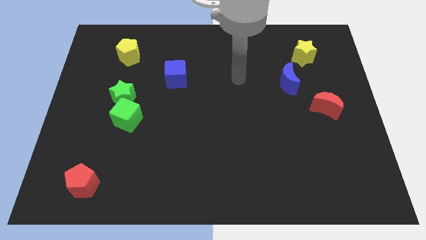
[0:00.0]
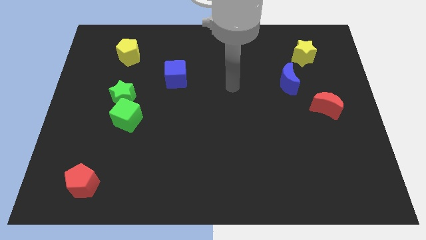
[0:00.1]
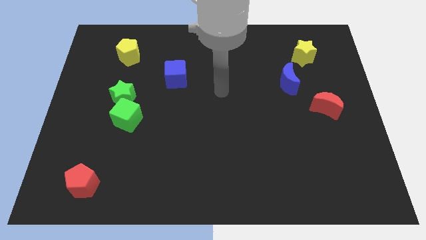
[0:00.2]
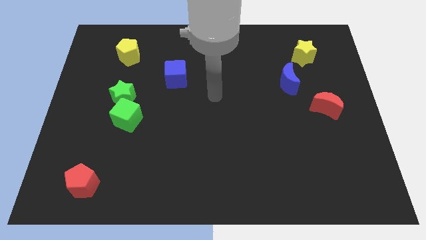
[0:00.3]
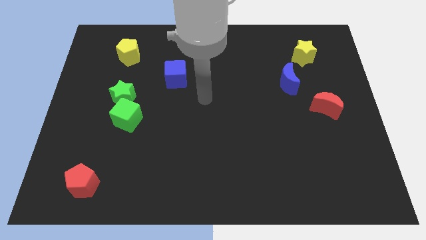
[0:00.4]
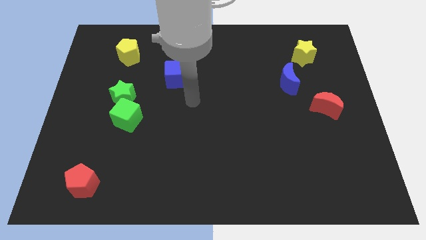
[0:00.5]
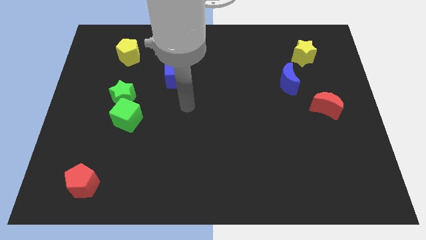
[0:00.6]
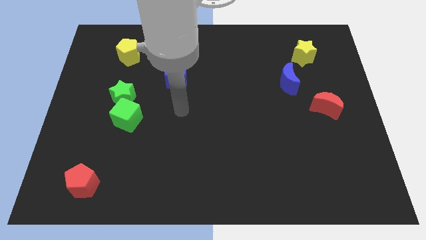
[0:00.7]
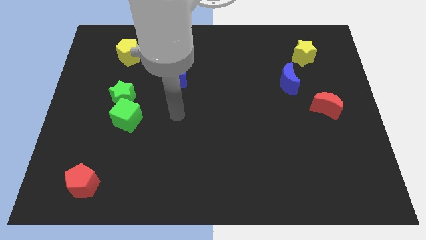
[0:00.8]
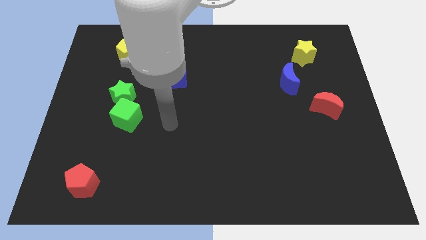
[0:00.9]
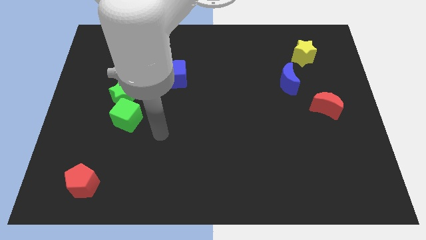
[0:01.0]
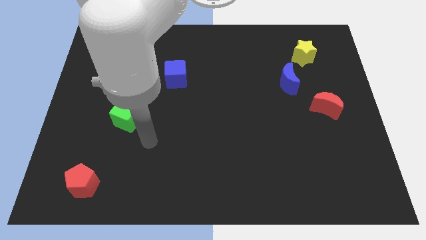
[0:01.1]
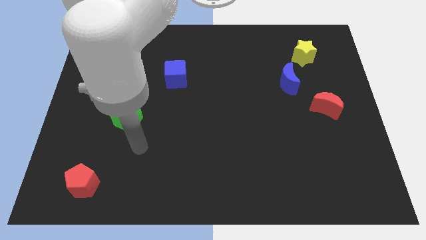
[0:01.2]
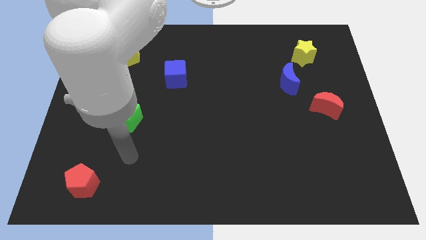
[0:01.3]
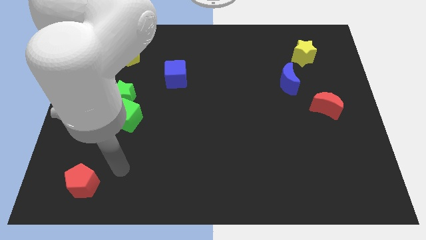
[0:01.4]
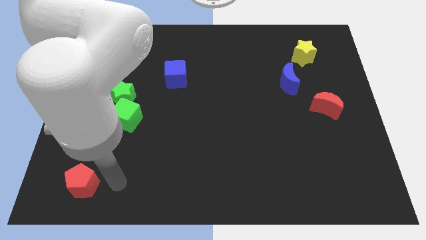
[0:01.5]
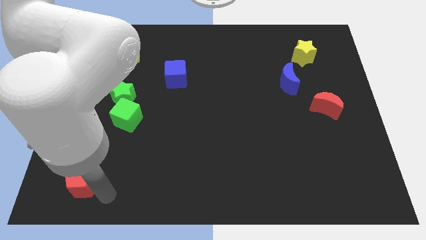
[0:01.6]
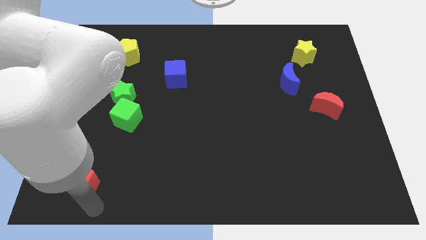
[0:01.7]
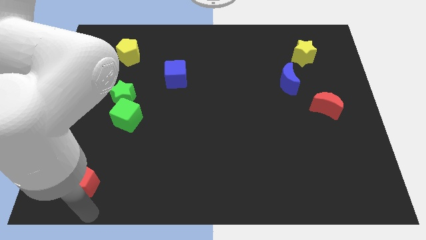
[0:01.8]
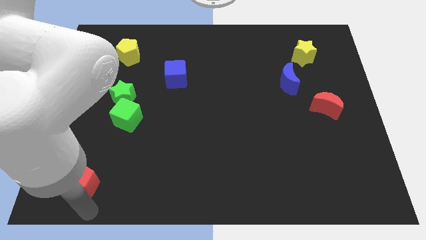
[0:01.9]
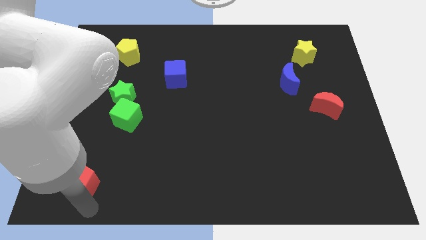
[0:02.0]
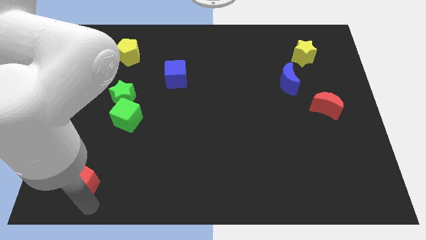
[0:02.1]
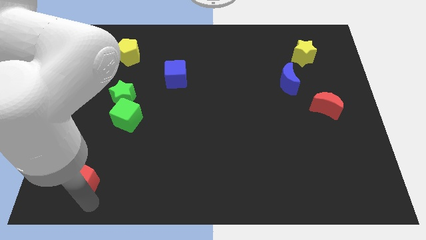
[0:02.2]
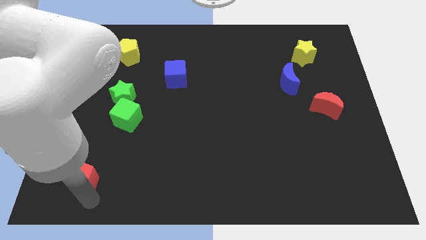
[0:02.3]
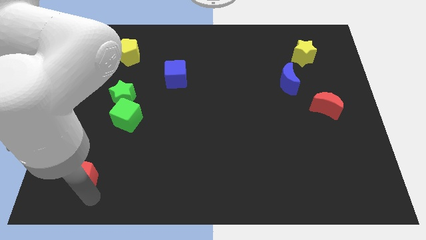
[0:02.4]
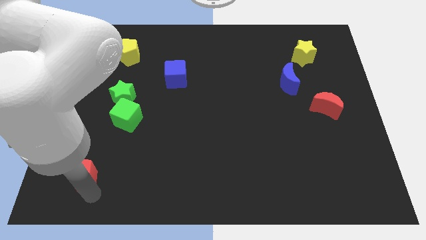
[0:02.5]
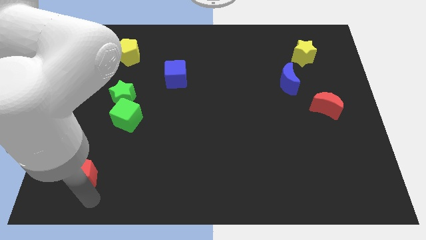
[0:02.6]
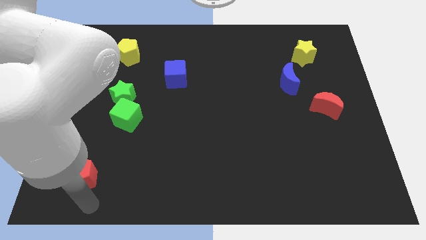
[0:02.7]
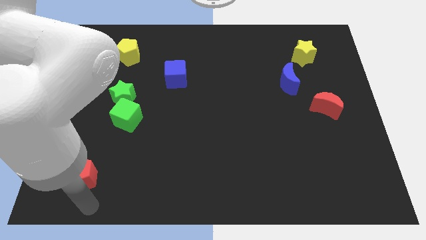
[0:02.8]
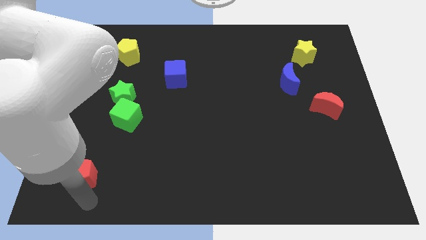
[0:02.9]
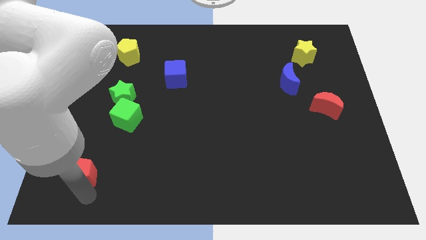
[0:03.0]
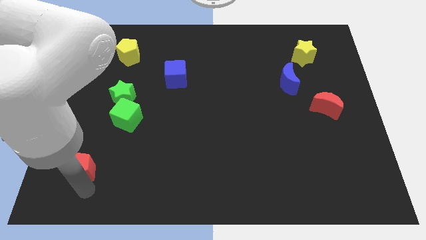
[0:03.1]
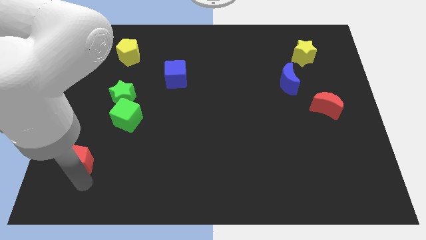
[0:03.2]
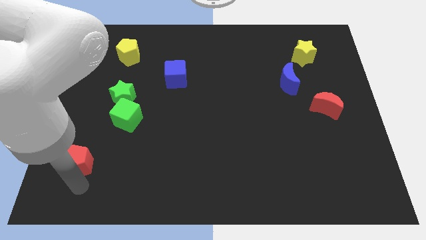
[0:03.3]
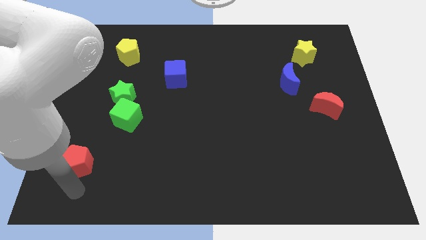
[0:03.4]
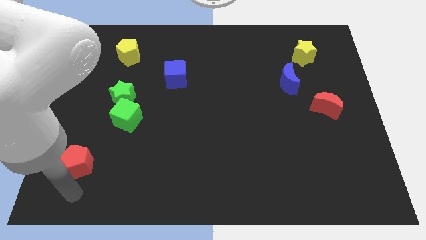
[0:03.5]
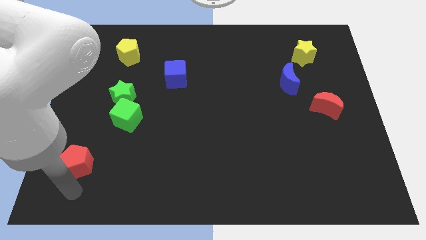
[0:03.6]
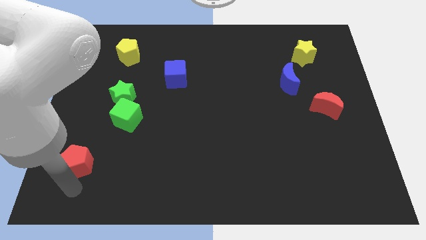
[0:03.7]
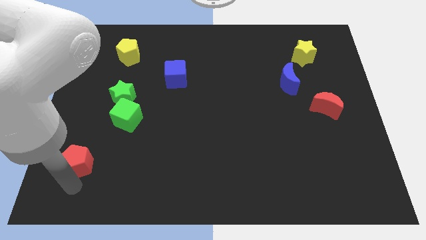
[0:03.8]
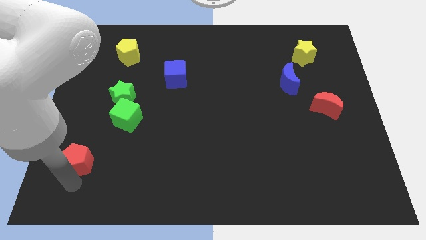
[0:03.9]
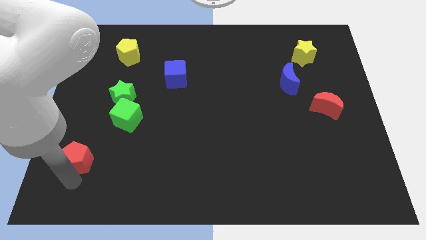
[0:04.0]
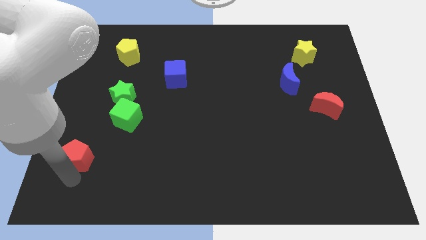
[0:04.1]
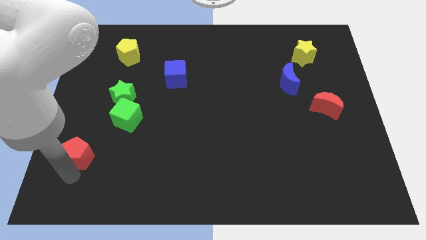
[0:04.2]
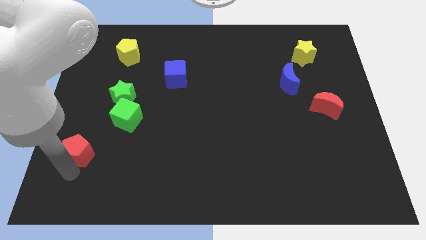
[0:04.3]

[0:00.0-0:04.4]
slightly push the red pentagon up

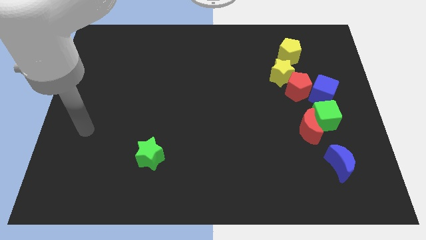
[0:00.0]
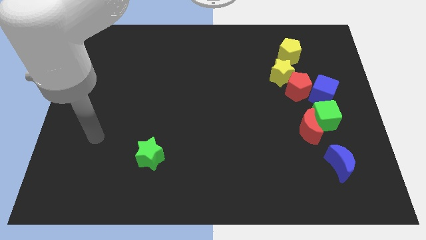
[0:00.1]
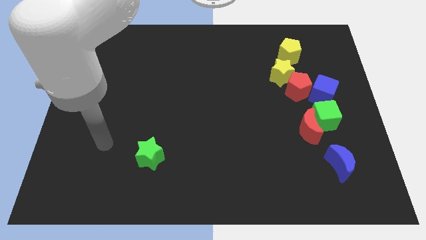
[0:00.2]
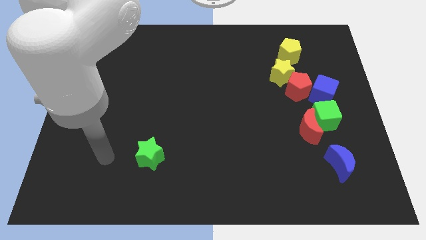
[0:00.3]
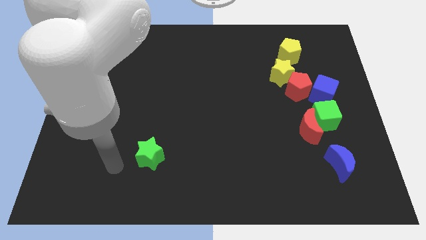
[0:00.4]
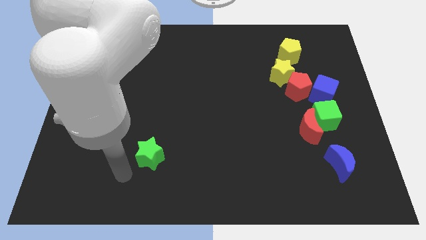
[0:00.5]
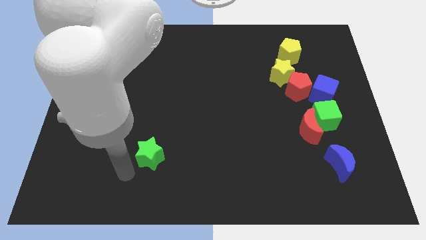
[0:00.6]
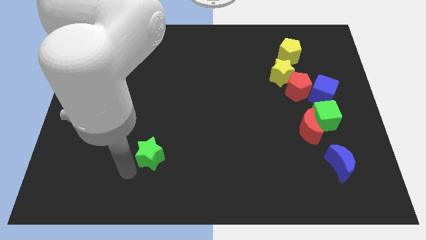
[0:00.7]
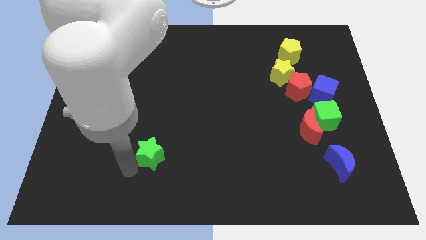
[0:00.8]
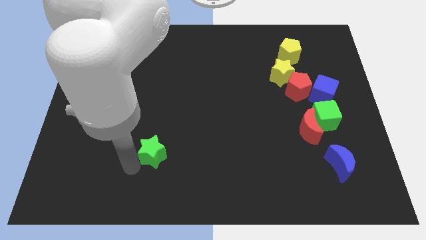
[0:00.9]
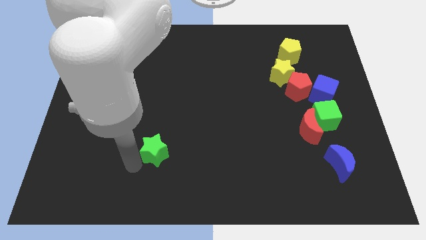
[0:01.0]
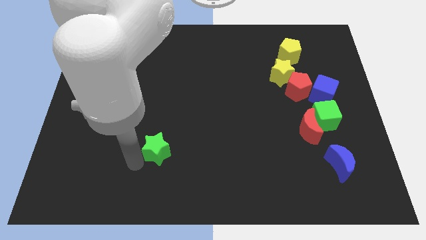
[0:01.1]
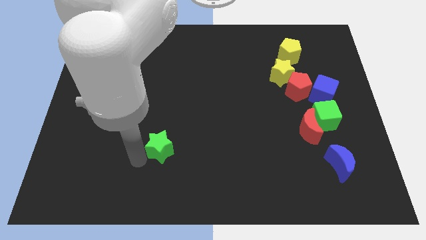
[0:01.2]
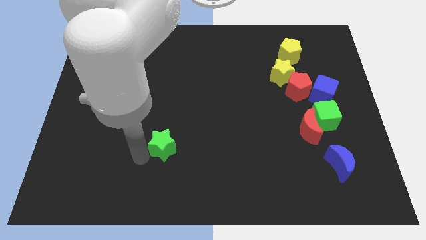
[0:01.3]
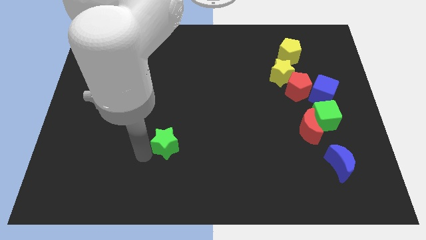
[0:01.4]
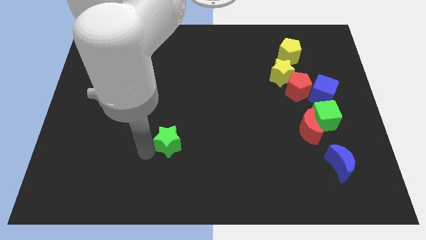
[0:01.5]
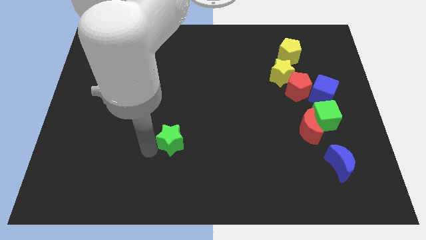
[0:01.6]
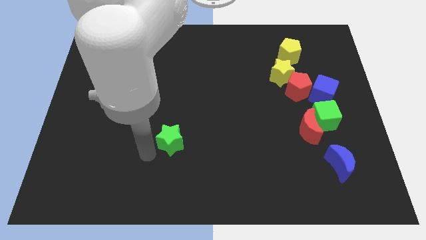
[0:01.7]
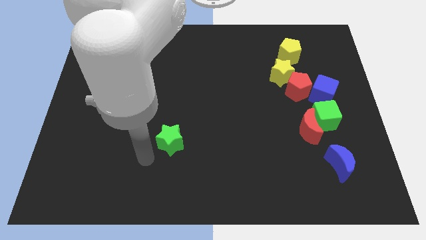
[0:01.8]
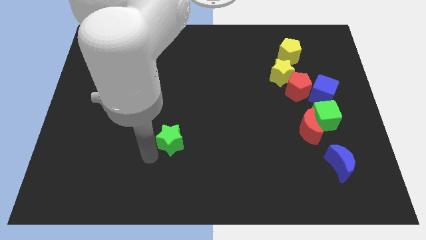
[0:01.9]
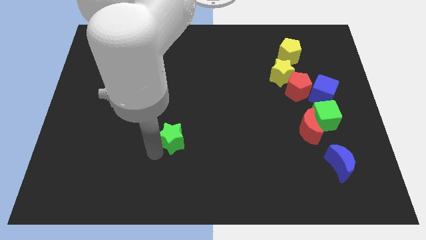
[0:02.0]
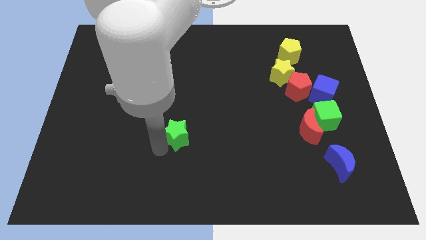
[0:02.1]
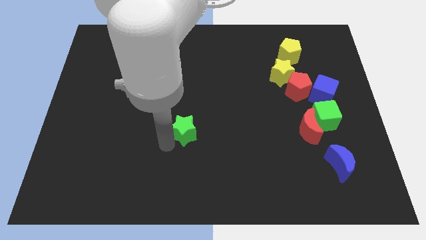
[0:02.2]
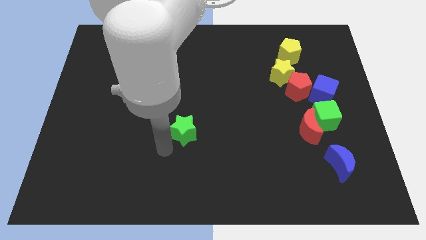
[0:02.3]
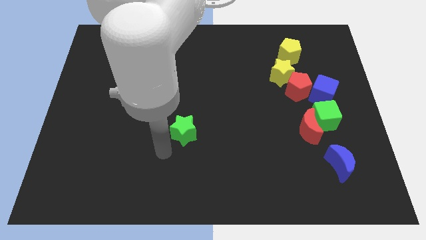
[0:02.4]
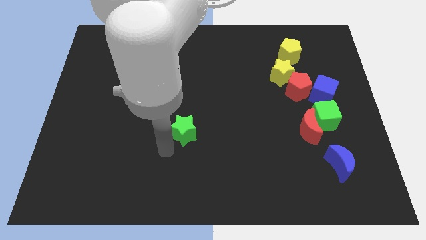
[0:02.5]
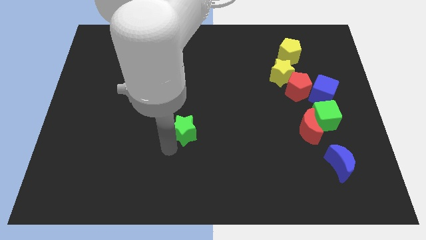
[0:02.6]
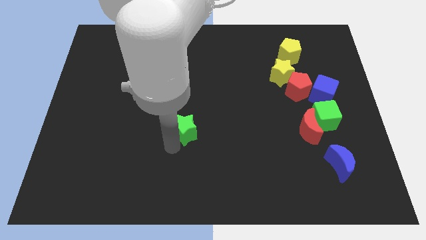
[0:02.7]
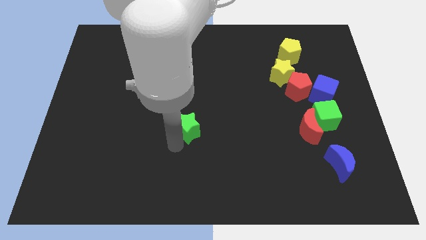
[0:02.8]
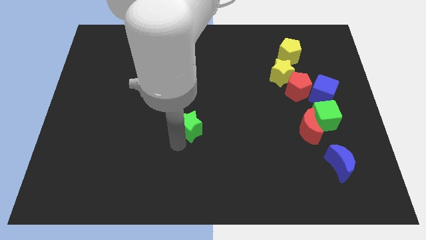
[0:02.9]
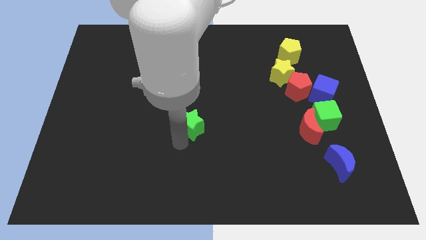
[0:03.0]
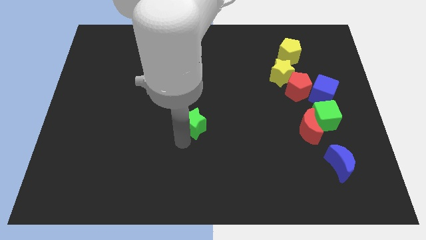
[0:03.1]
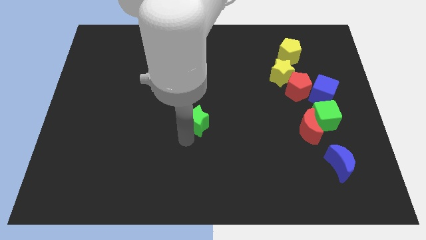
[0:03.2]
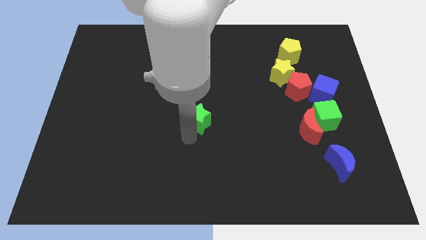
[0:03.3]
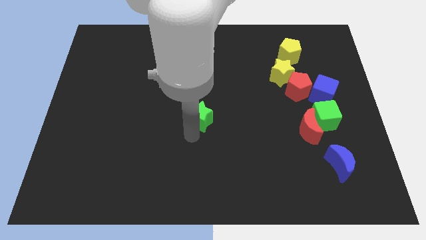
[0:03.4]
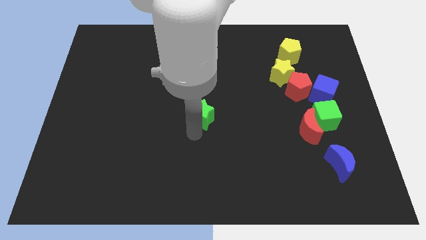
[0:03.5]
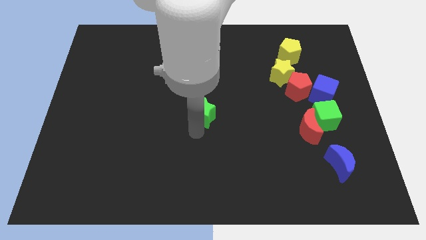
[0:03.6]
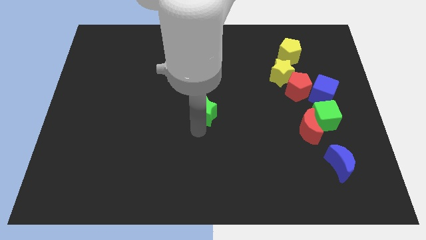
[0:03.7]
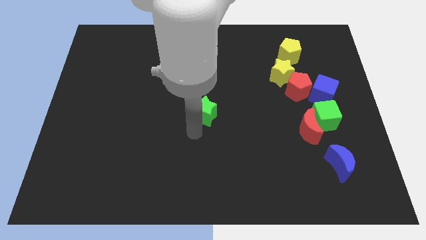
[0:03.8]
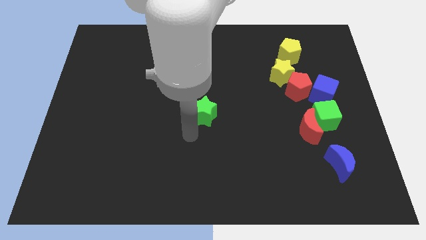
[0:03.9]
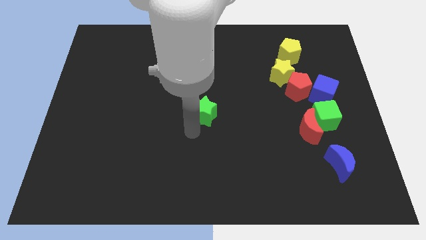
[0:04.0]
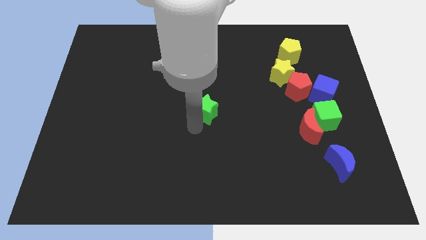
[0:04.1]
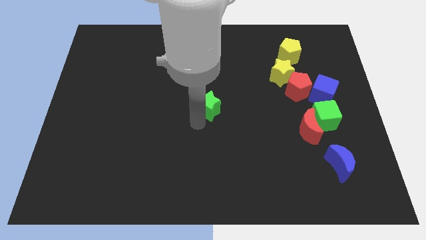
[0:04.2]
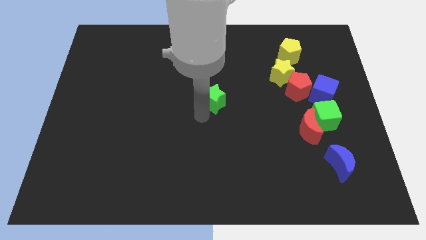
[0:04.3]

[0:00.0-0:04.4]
push the green star up and to the right
